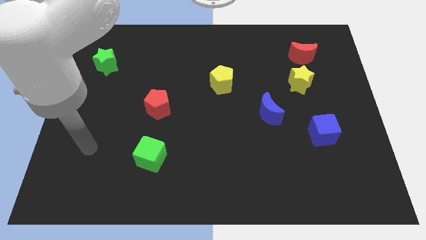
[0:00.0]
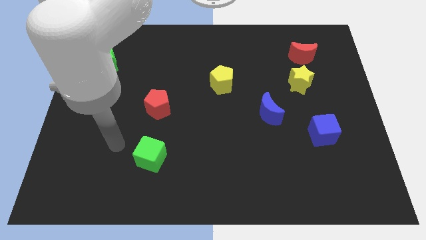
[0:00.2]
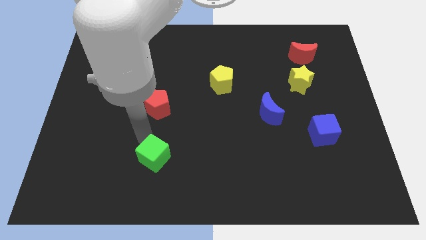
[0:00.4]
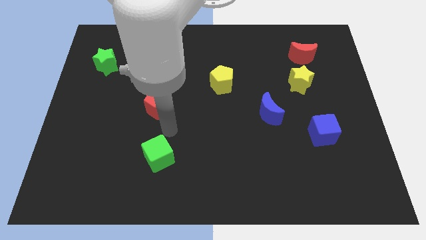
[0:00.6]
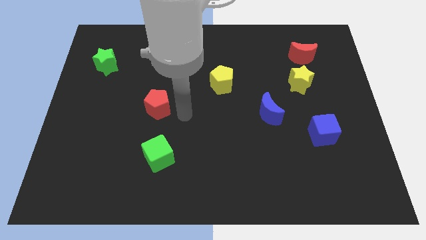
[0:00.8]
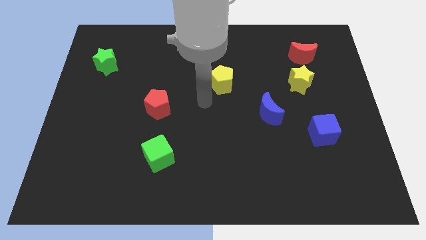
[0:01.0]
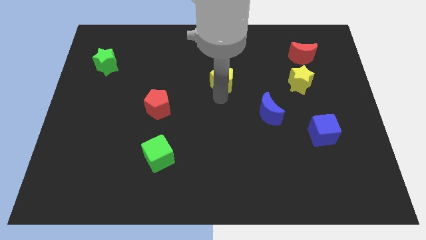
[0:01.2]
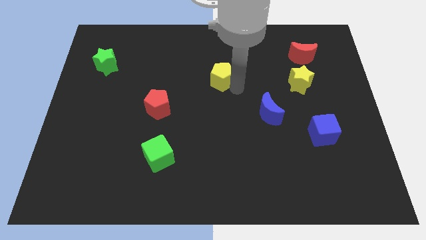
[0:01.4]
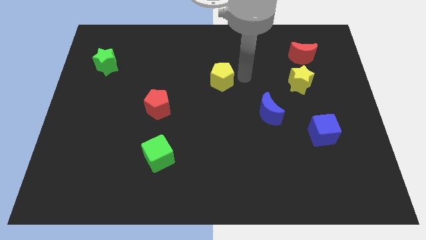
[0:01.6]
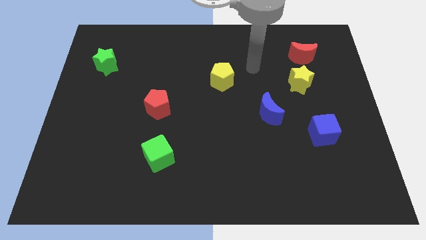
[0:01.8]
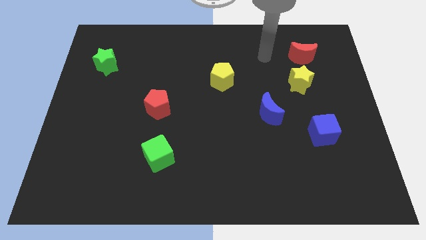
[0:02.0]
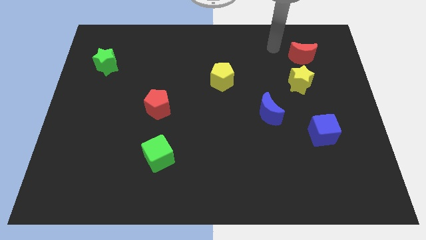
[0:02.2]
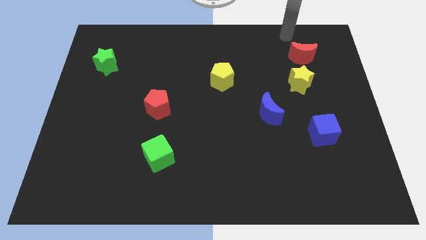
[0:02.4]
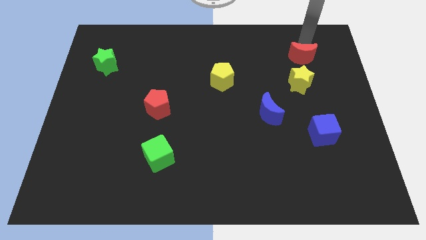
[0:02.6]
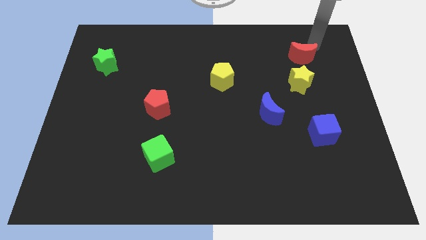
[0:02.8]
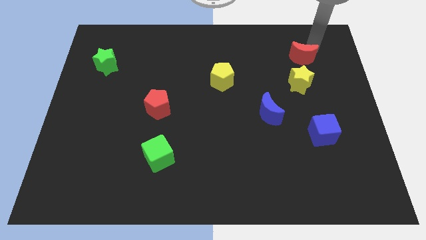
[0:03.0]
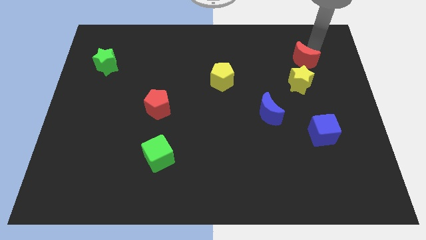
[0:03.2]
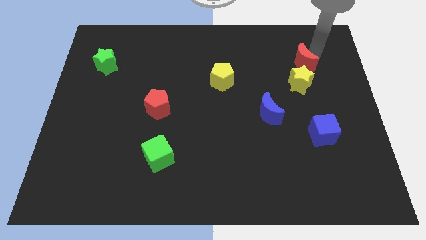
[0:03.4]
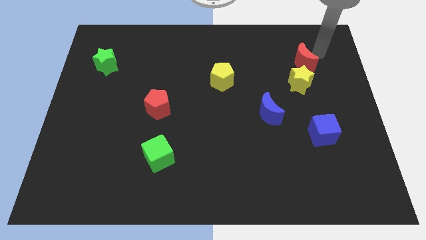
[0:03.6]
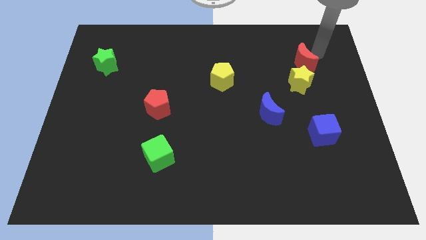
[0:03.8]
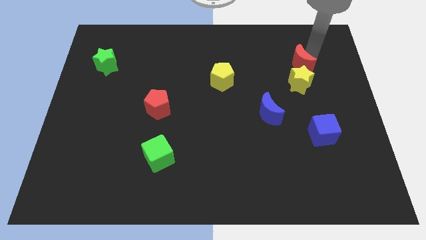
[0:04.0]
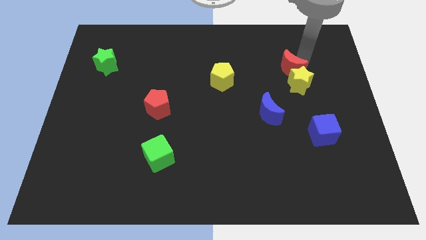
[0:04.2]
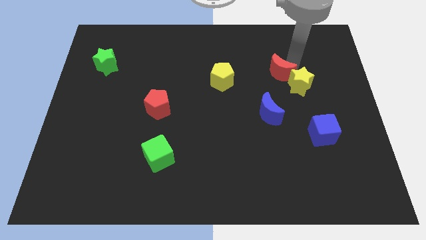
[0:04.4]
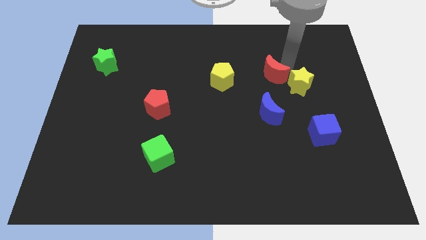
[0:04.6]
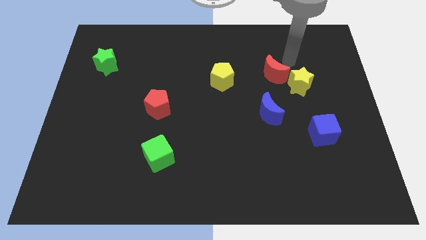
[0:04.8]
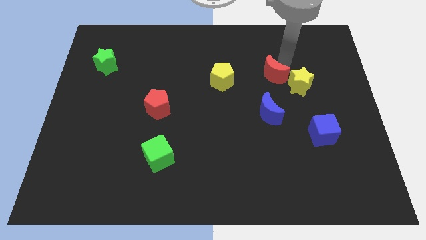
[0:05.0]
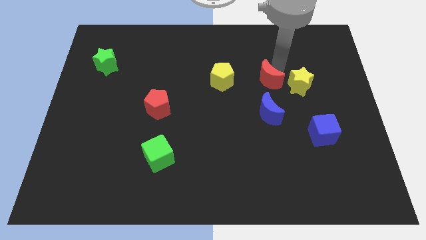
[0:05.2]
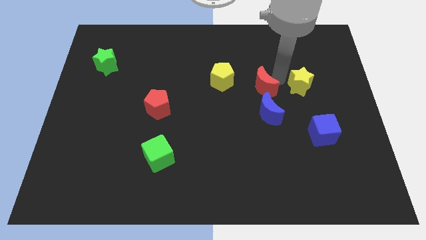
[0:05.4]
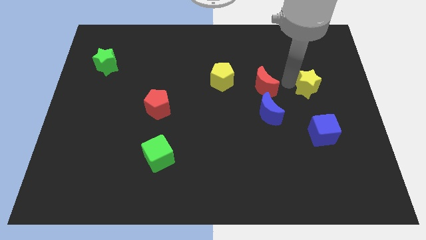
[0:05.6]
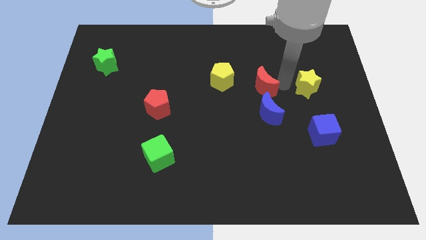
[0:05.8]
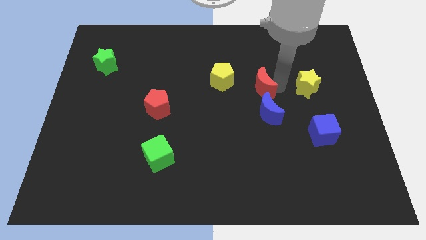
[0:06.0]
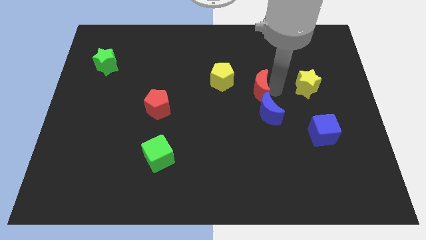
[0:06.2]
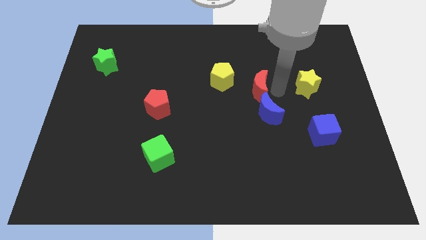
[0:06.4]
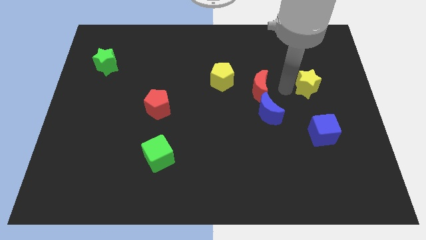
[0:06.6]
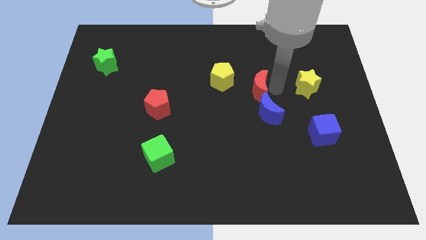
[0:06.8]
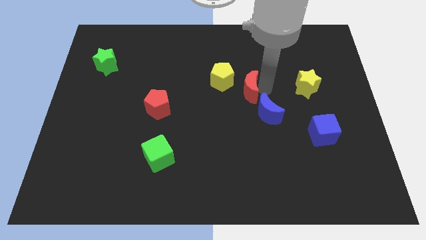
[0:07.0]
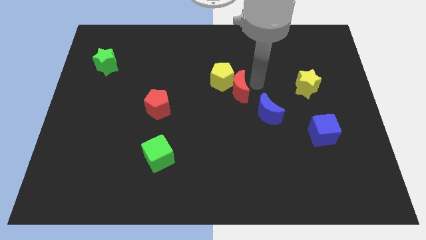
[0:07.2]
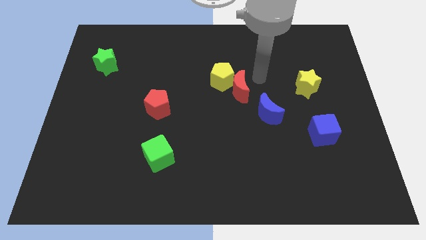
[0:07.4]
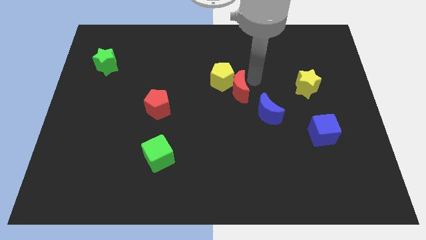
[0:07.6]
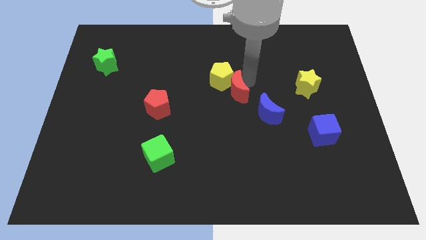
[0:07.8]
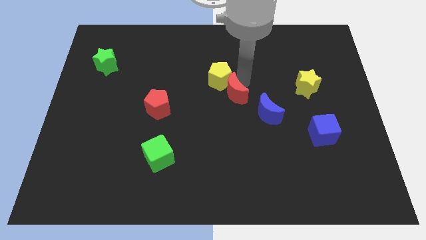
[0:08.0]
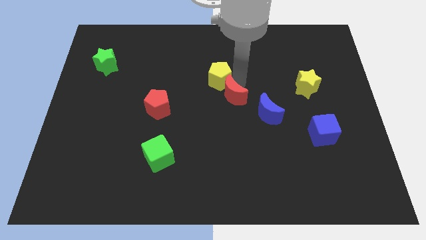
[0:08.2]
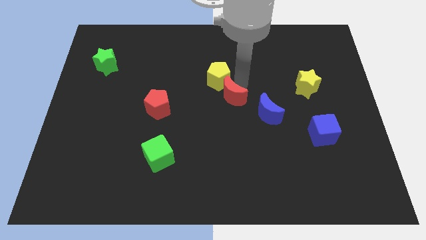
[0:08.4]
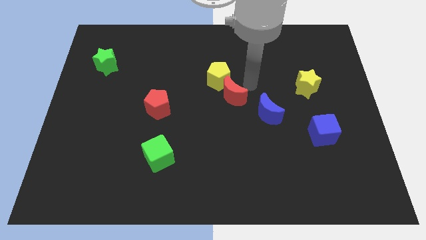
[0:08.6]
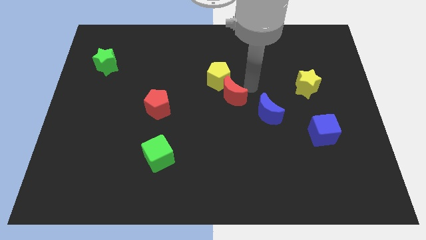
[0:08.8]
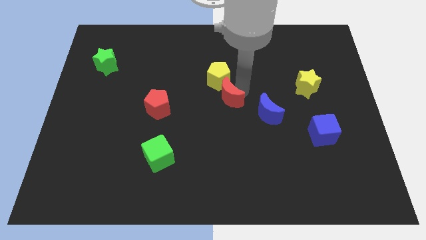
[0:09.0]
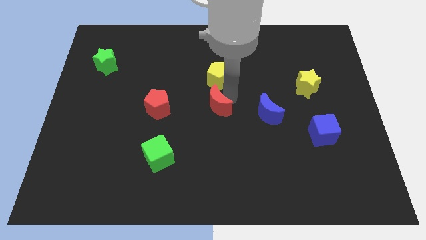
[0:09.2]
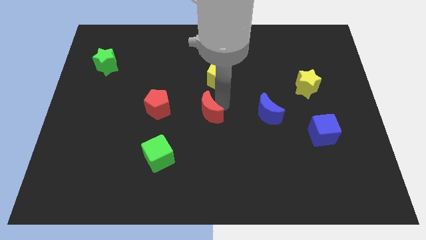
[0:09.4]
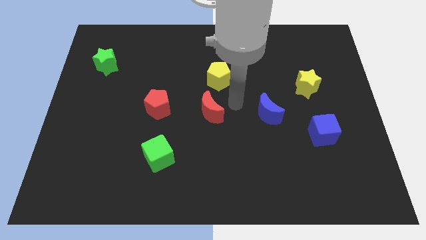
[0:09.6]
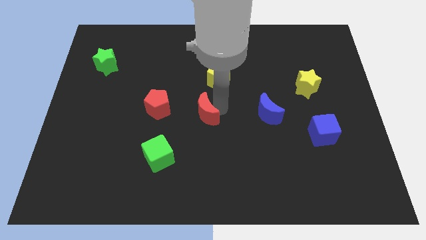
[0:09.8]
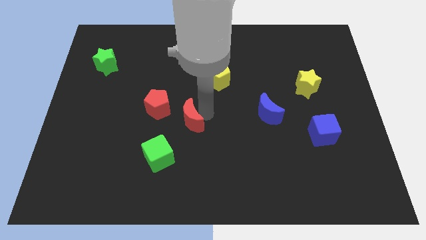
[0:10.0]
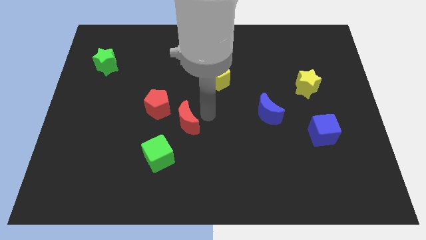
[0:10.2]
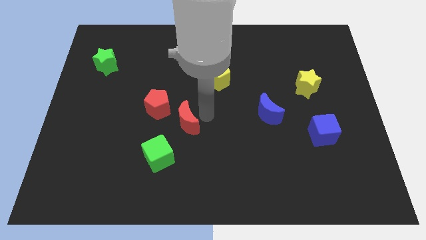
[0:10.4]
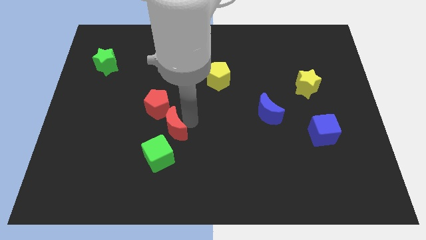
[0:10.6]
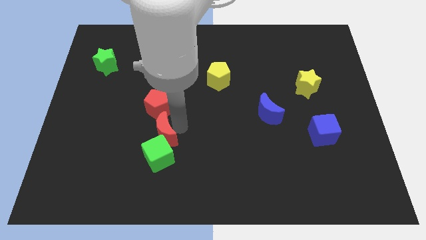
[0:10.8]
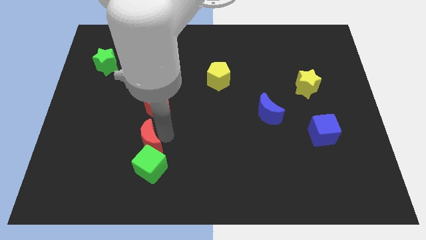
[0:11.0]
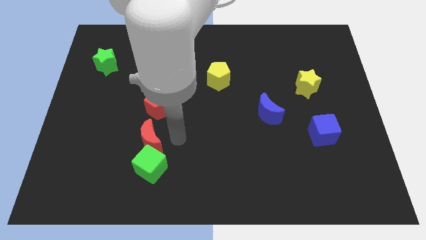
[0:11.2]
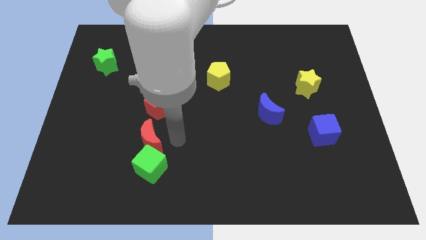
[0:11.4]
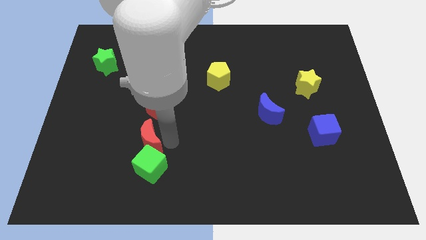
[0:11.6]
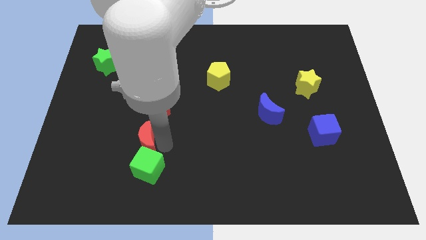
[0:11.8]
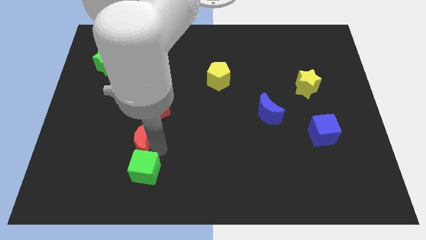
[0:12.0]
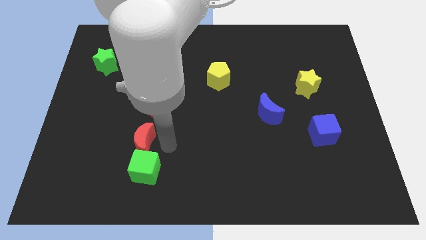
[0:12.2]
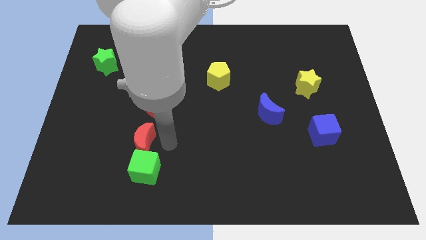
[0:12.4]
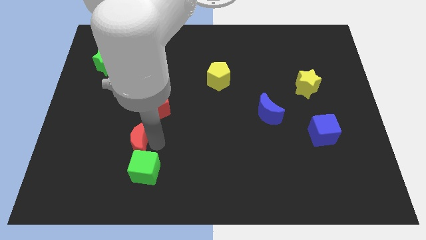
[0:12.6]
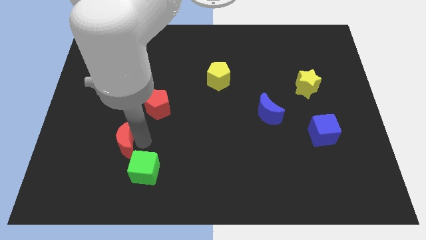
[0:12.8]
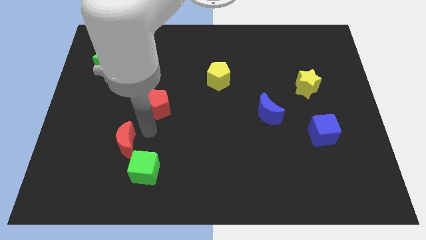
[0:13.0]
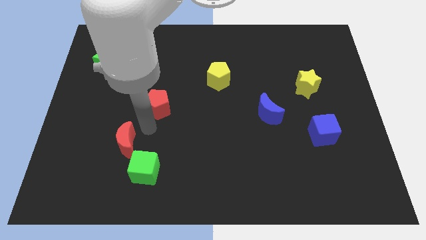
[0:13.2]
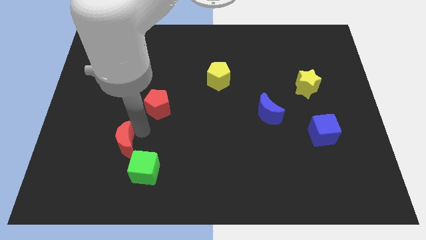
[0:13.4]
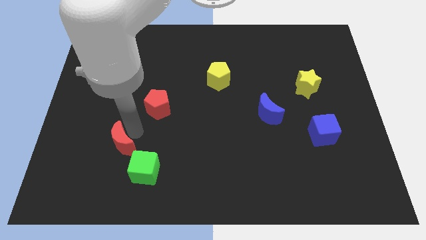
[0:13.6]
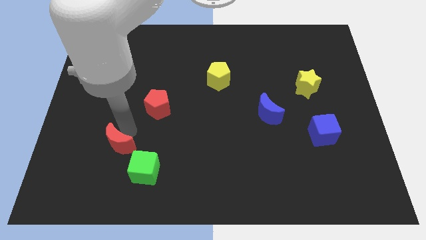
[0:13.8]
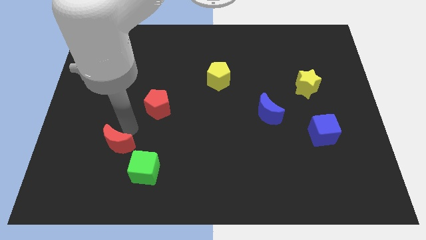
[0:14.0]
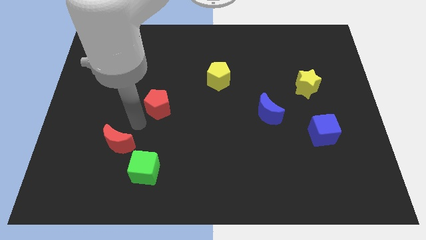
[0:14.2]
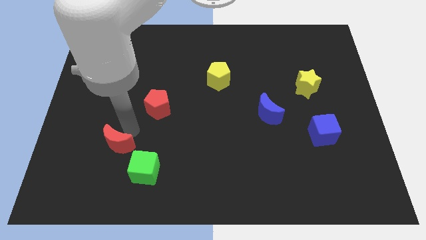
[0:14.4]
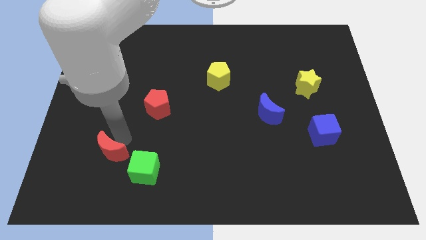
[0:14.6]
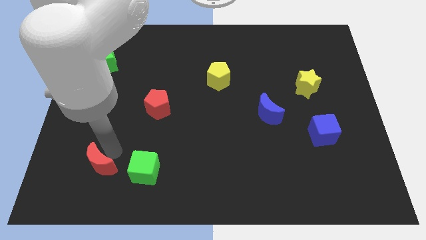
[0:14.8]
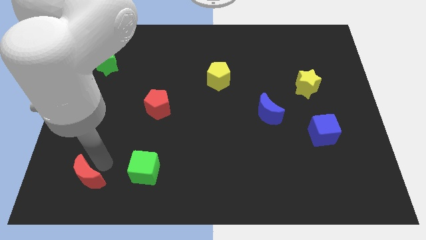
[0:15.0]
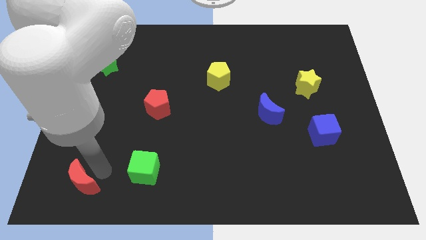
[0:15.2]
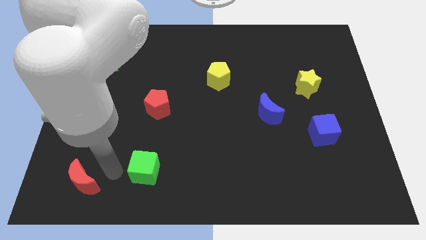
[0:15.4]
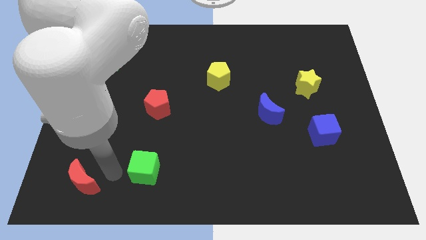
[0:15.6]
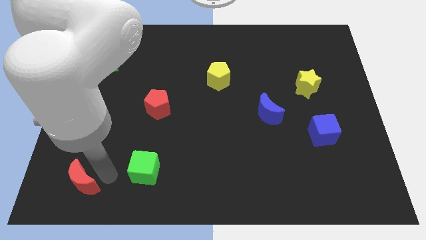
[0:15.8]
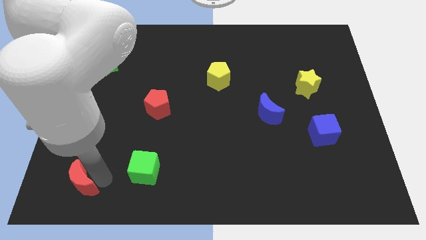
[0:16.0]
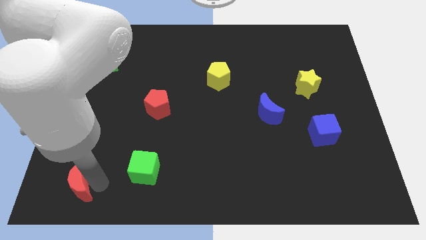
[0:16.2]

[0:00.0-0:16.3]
push the red moon to the lower left corner
